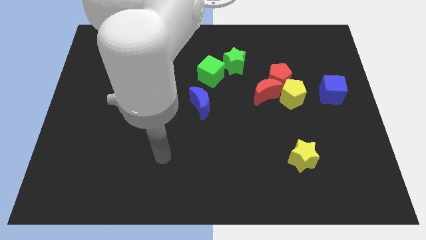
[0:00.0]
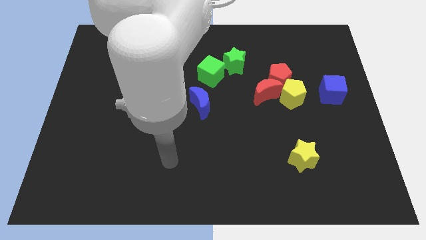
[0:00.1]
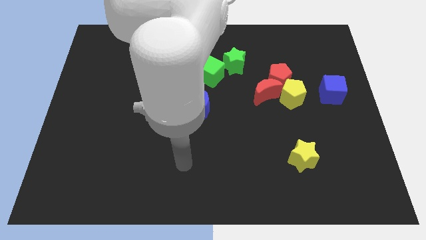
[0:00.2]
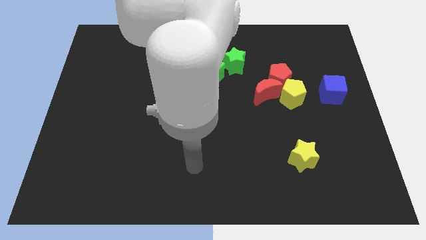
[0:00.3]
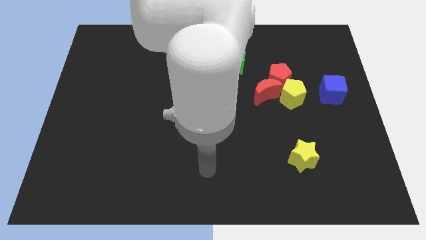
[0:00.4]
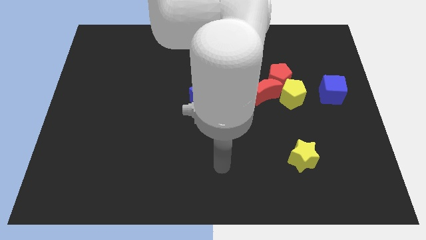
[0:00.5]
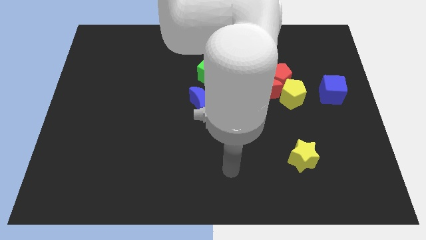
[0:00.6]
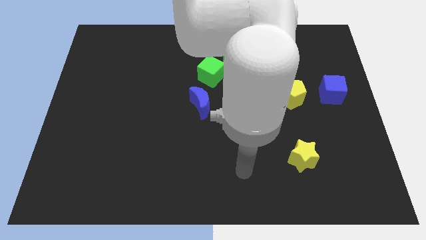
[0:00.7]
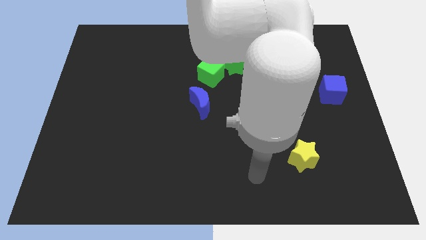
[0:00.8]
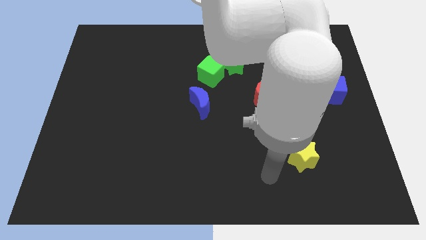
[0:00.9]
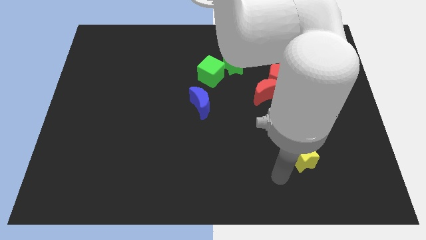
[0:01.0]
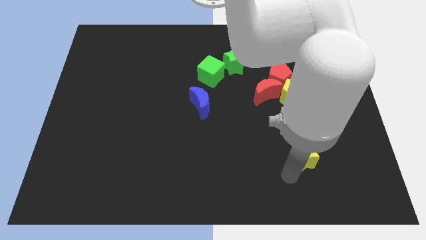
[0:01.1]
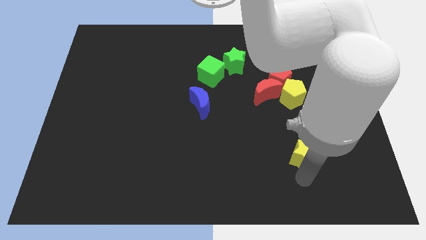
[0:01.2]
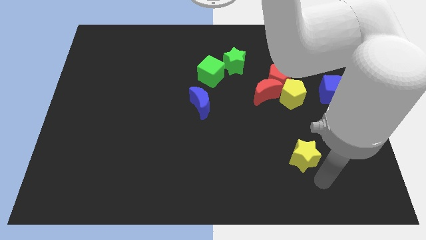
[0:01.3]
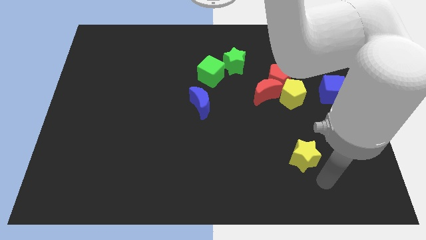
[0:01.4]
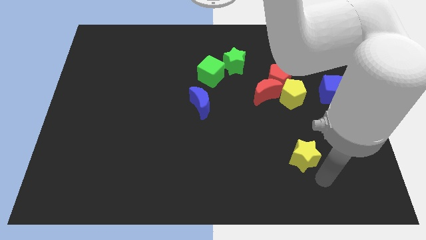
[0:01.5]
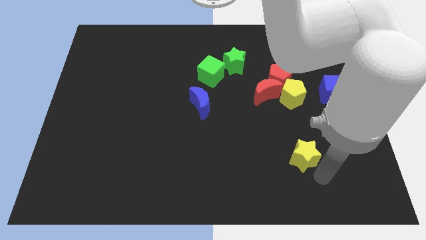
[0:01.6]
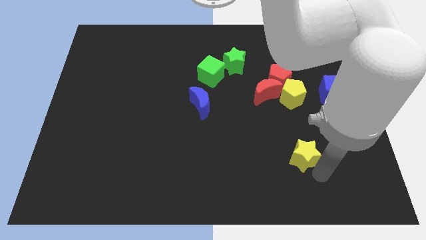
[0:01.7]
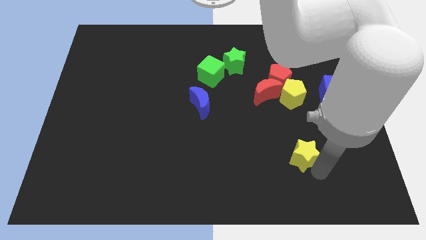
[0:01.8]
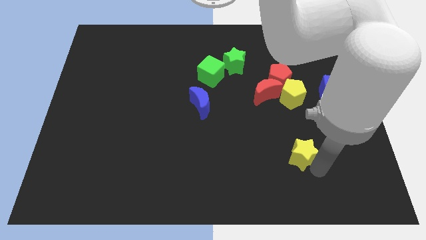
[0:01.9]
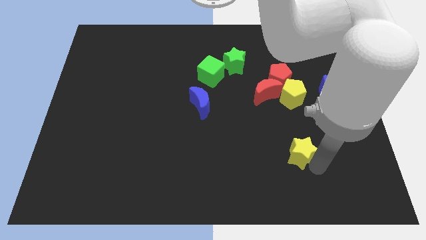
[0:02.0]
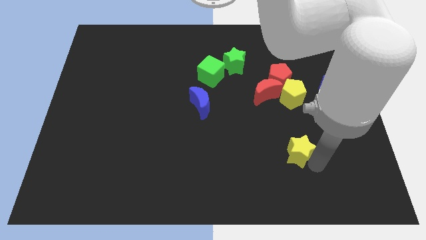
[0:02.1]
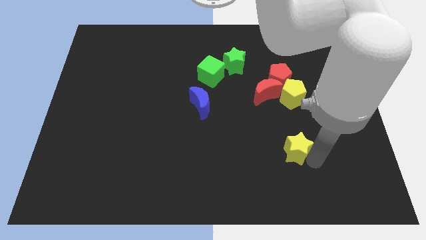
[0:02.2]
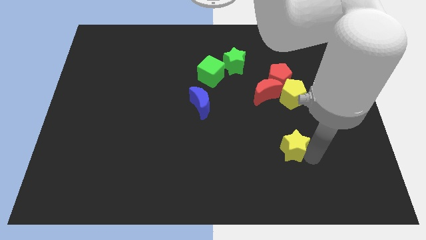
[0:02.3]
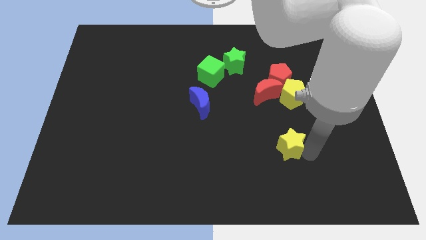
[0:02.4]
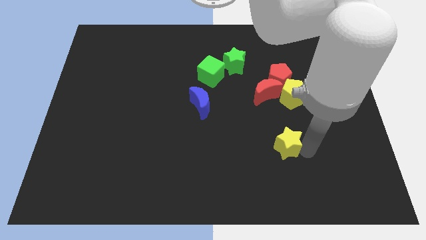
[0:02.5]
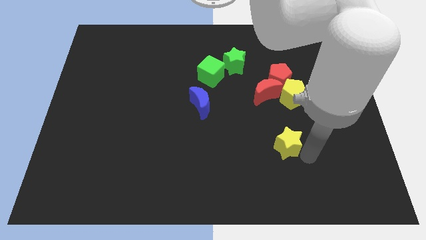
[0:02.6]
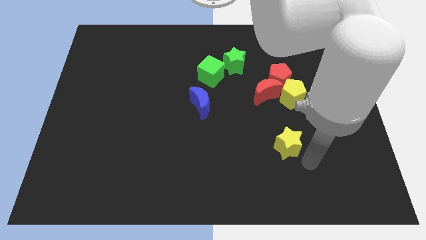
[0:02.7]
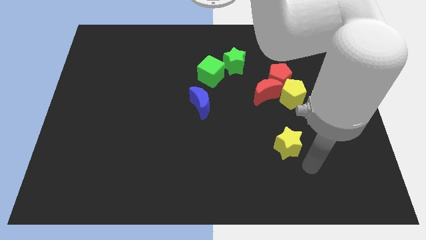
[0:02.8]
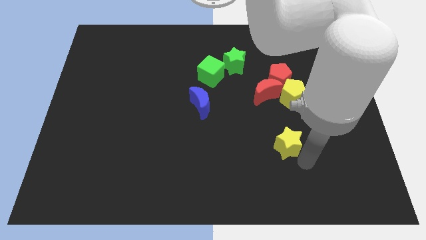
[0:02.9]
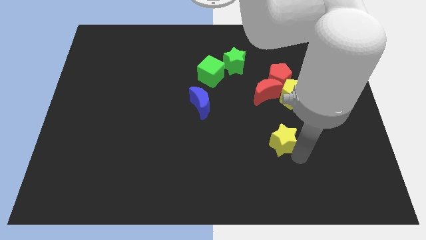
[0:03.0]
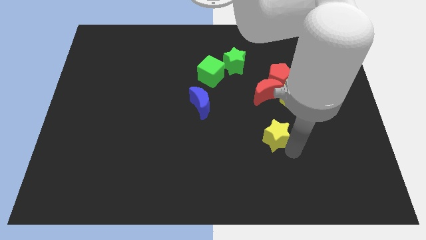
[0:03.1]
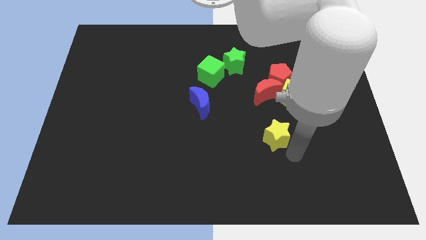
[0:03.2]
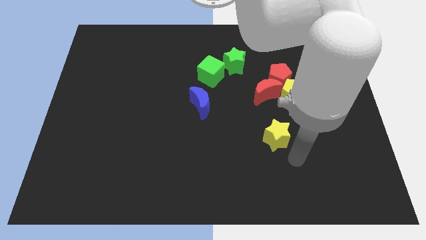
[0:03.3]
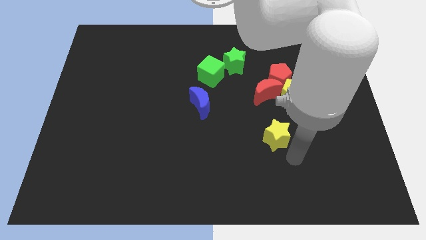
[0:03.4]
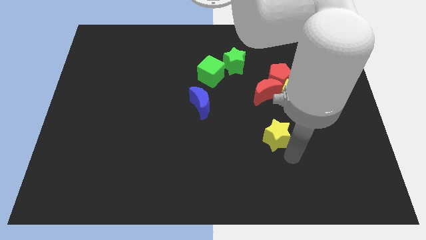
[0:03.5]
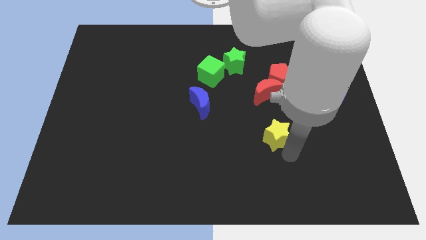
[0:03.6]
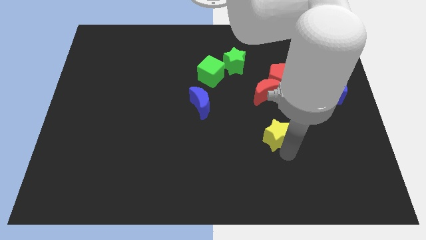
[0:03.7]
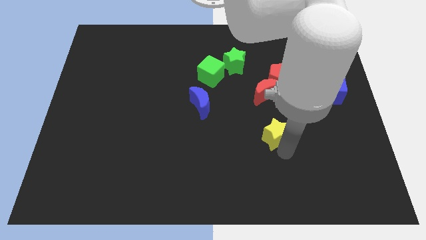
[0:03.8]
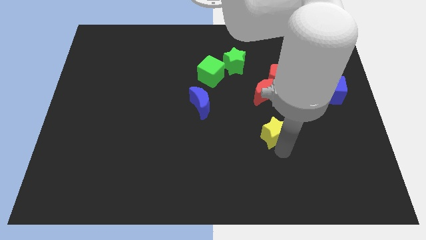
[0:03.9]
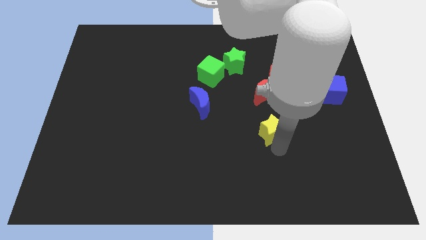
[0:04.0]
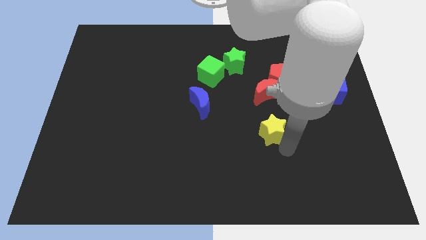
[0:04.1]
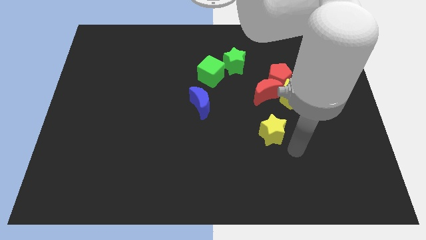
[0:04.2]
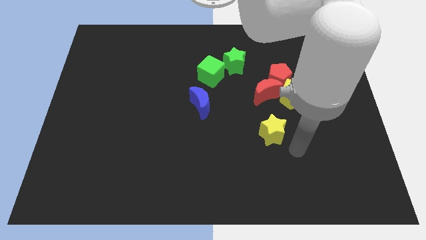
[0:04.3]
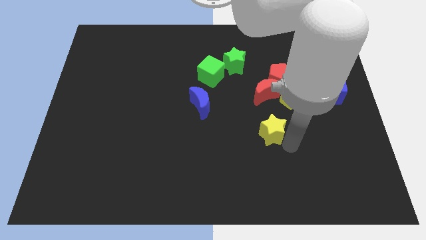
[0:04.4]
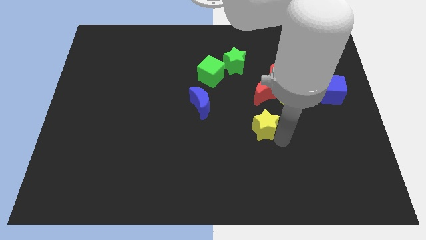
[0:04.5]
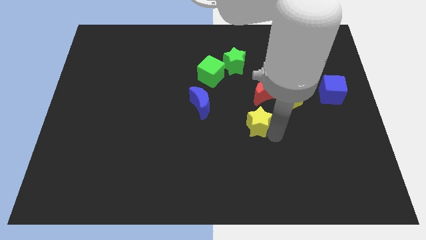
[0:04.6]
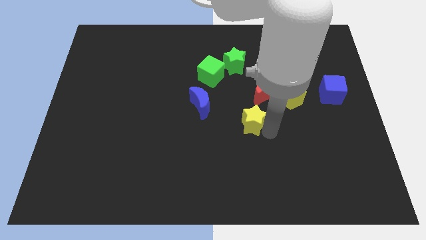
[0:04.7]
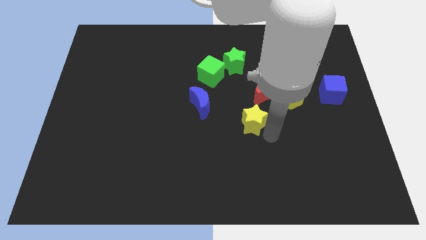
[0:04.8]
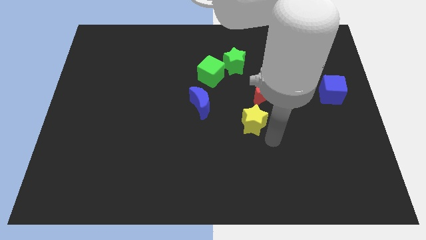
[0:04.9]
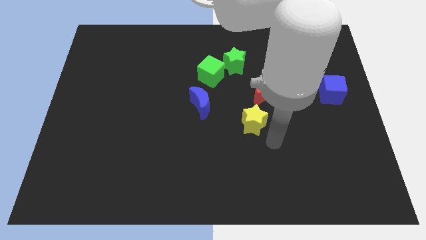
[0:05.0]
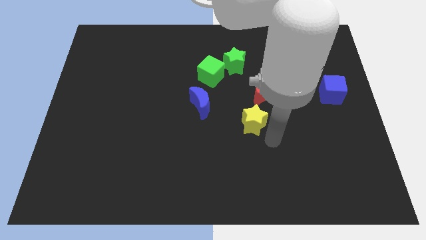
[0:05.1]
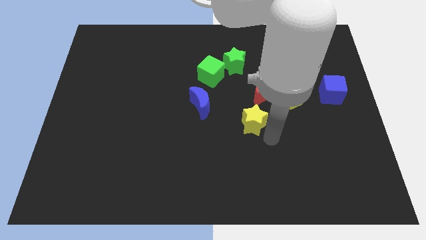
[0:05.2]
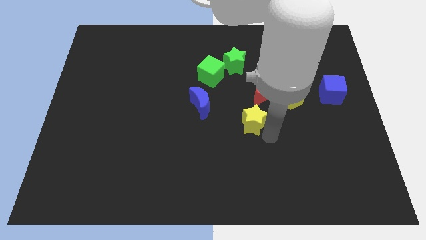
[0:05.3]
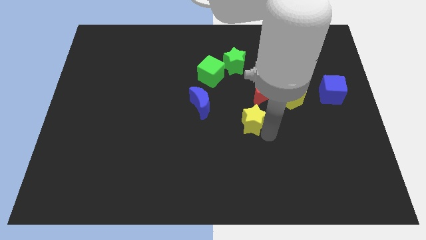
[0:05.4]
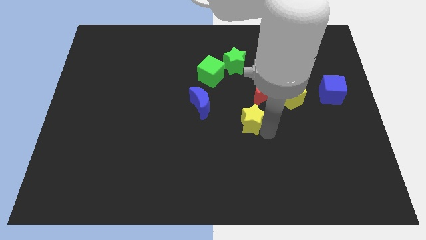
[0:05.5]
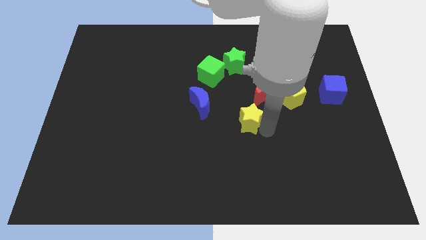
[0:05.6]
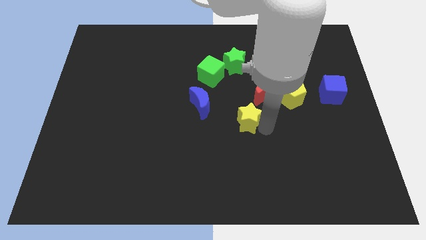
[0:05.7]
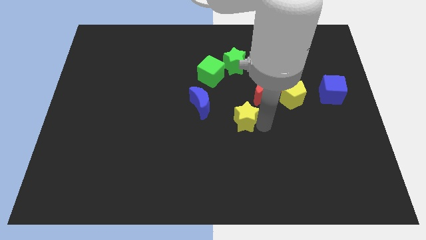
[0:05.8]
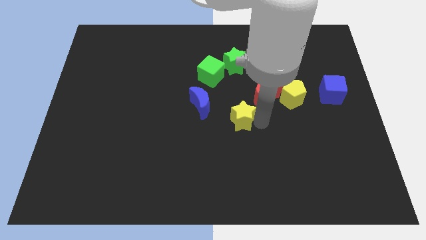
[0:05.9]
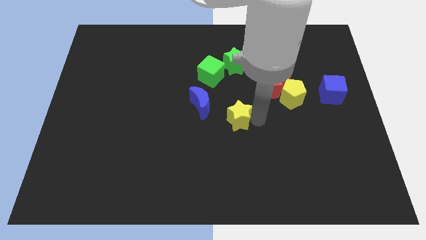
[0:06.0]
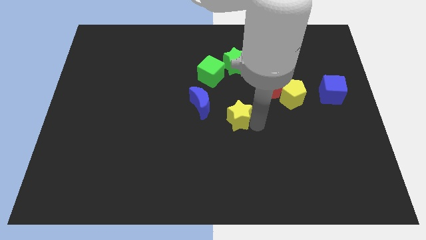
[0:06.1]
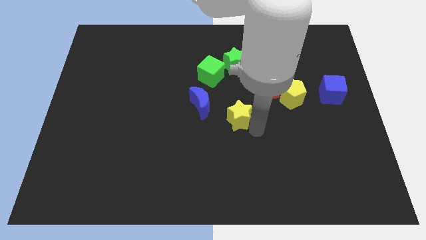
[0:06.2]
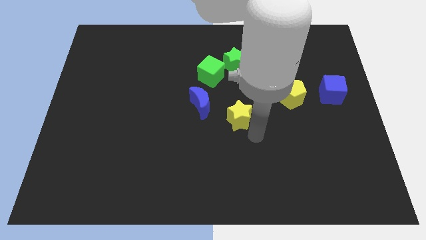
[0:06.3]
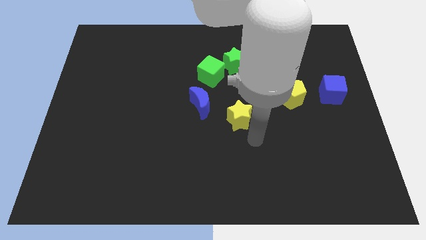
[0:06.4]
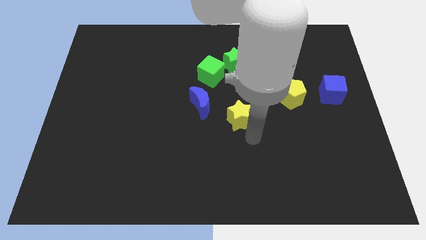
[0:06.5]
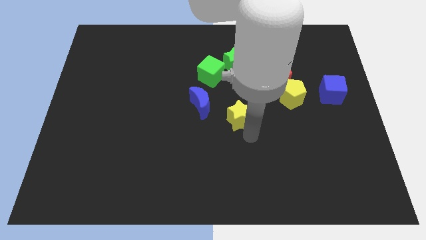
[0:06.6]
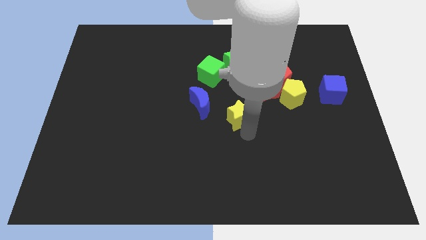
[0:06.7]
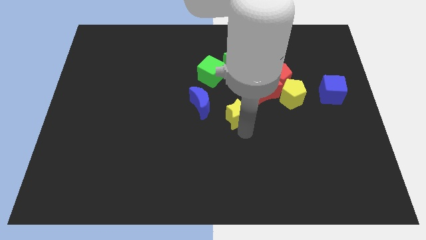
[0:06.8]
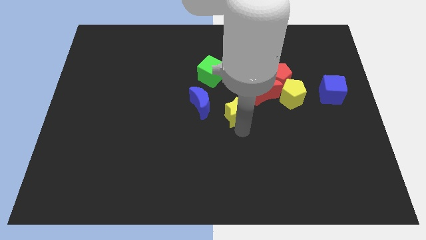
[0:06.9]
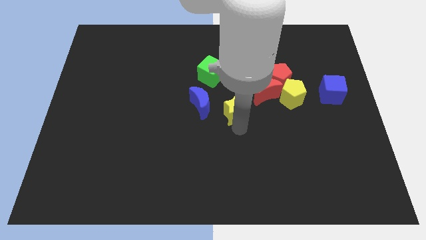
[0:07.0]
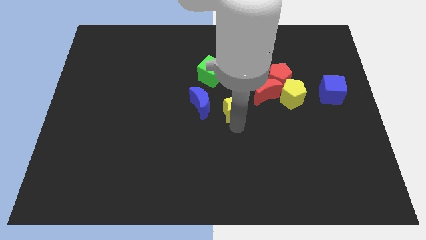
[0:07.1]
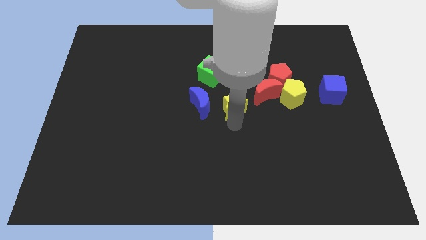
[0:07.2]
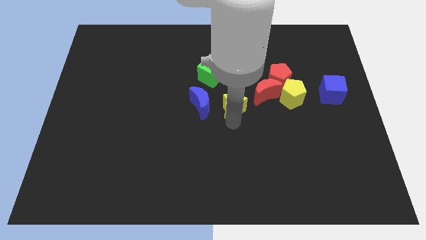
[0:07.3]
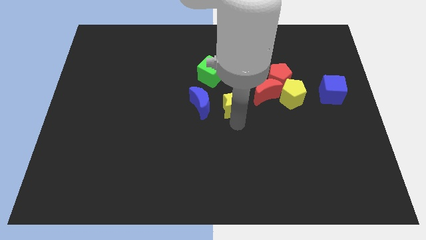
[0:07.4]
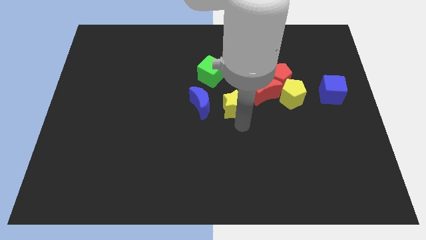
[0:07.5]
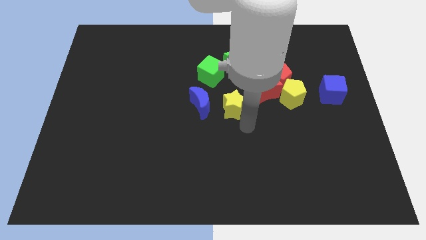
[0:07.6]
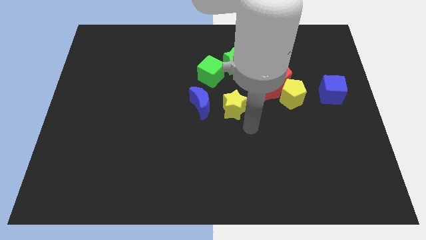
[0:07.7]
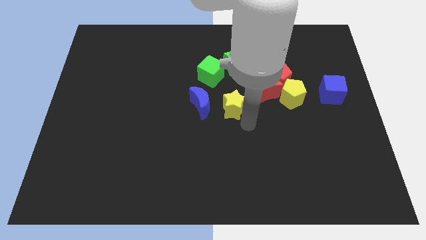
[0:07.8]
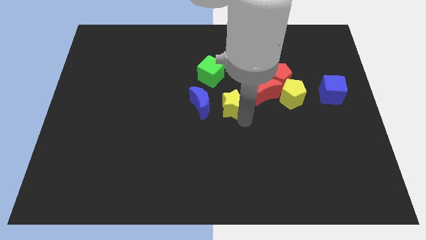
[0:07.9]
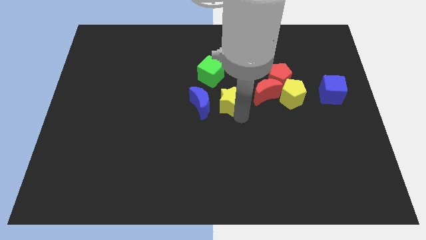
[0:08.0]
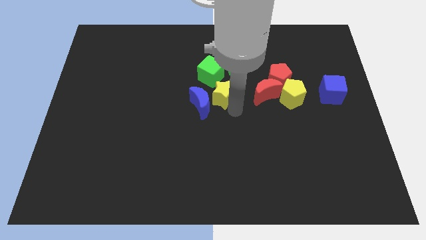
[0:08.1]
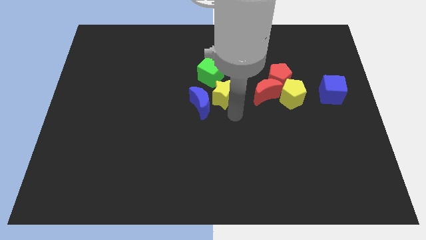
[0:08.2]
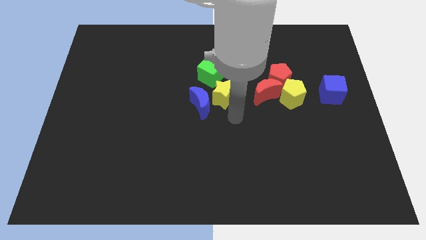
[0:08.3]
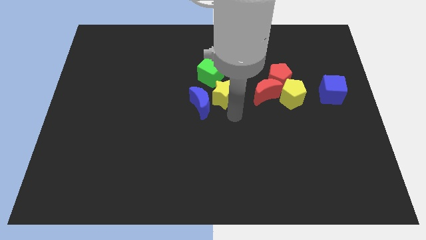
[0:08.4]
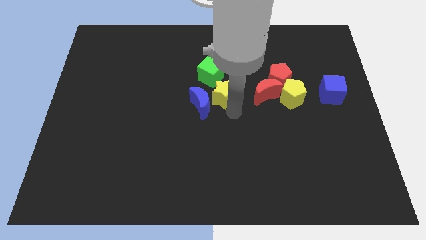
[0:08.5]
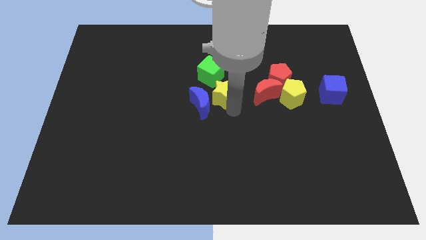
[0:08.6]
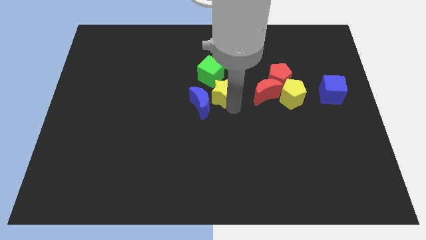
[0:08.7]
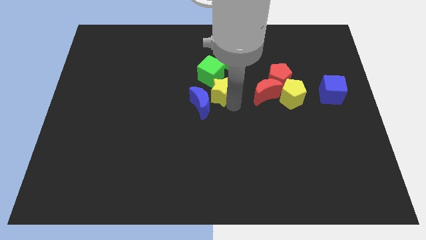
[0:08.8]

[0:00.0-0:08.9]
move the yellow star to the bottom left of the green star
